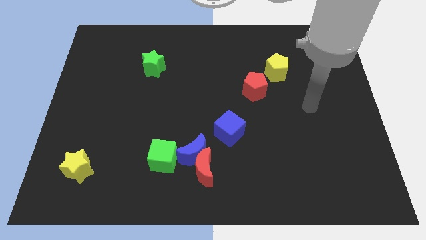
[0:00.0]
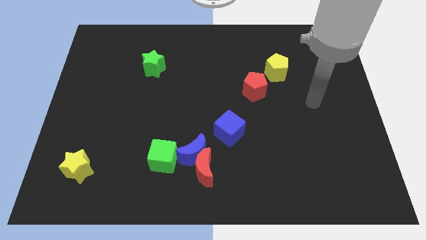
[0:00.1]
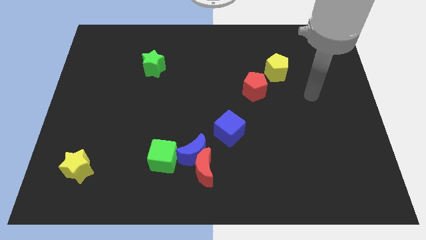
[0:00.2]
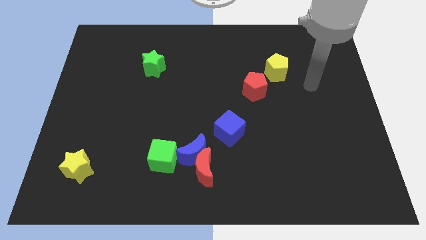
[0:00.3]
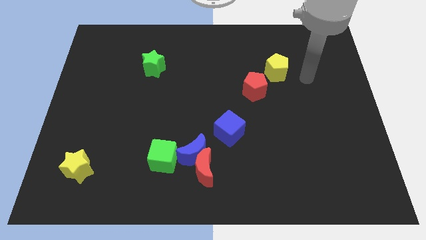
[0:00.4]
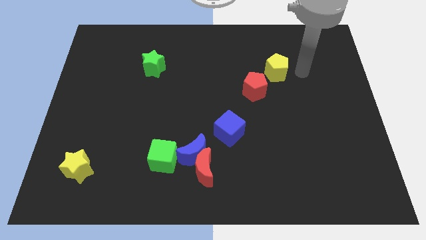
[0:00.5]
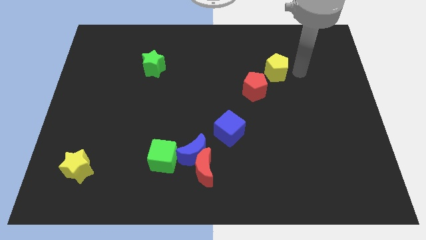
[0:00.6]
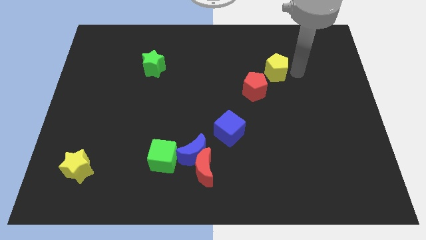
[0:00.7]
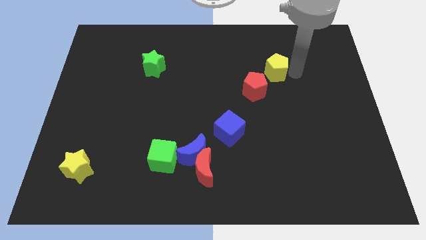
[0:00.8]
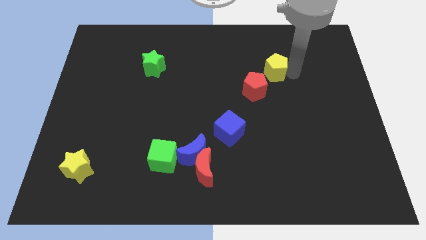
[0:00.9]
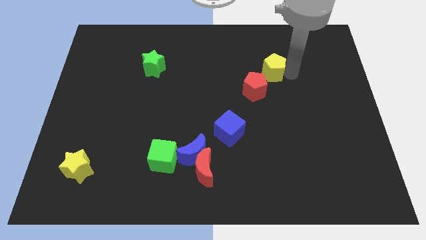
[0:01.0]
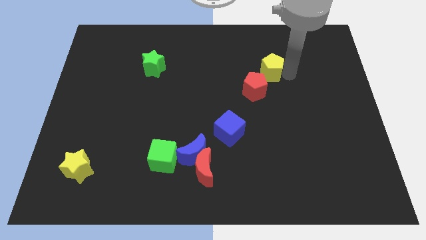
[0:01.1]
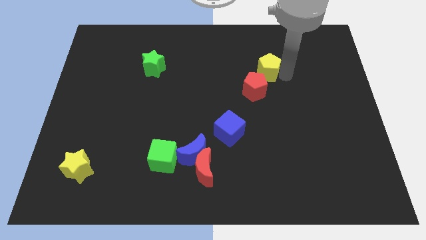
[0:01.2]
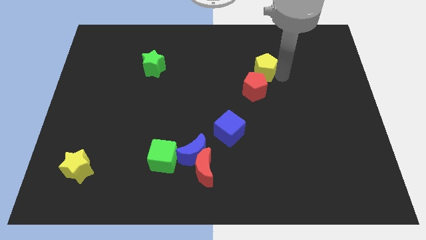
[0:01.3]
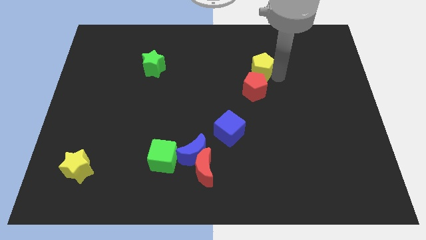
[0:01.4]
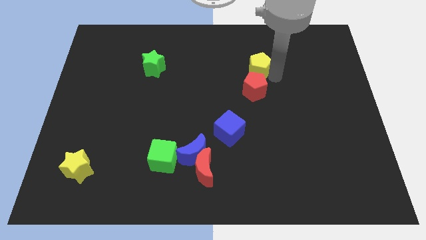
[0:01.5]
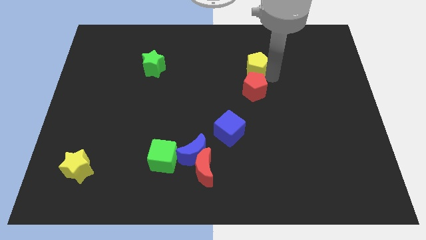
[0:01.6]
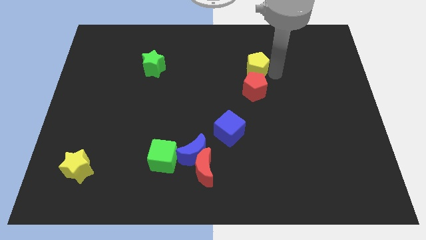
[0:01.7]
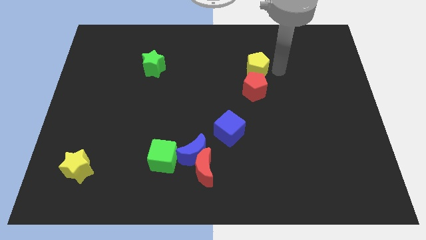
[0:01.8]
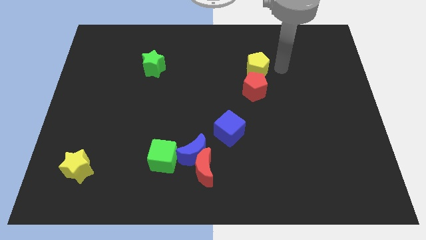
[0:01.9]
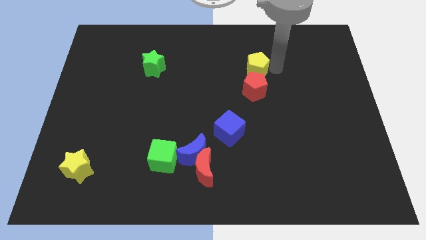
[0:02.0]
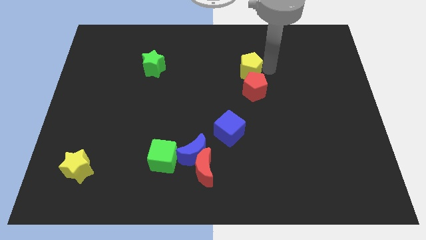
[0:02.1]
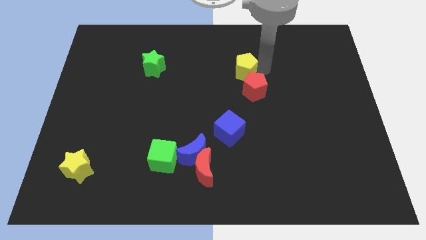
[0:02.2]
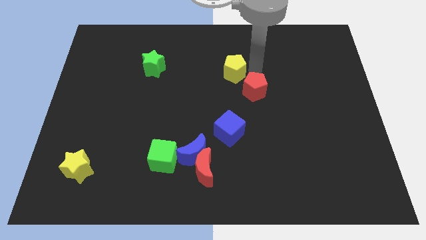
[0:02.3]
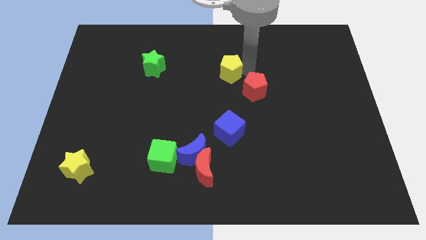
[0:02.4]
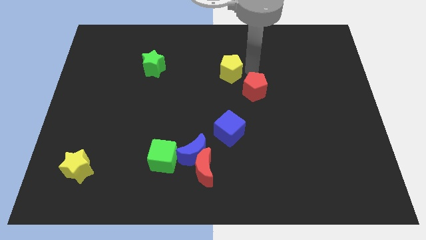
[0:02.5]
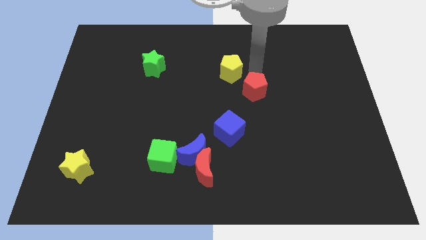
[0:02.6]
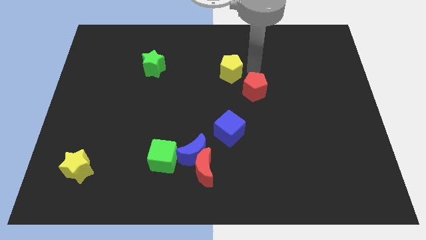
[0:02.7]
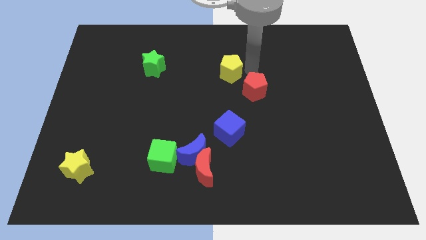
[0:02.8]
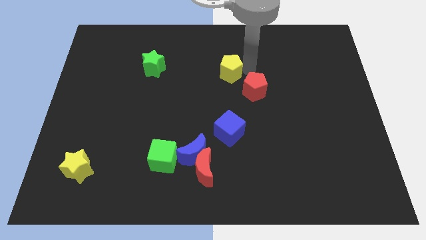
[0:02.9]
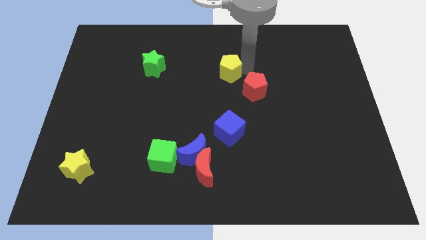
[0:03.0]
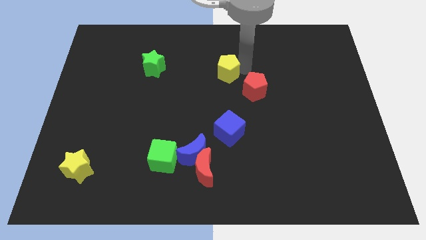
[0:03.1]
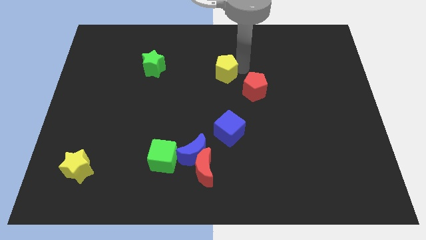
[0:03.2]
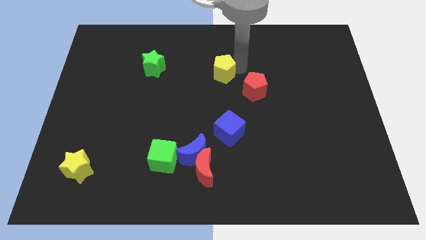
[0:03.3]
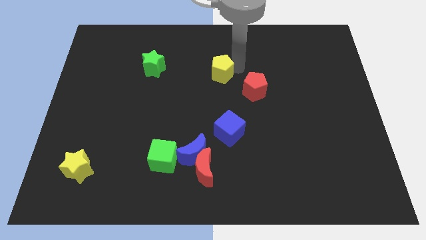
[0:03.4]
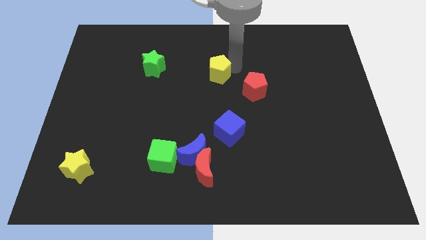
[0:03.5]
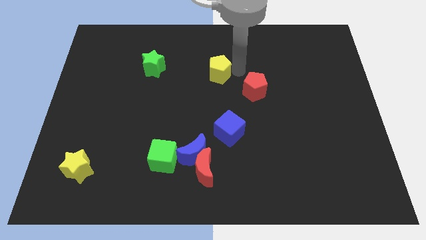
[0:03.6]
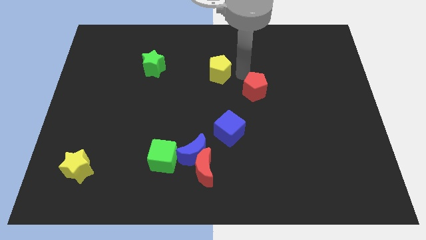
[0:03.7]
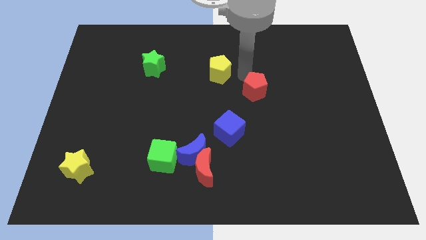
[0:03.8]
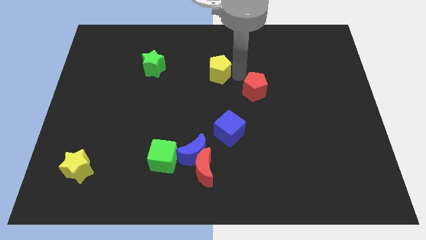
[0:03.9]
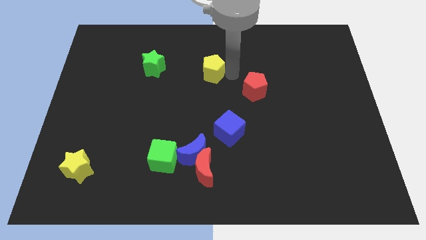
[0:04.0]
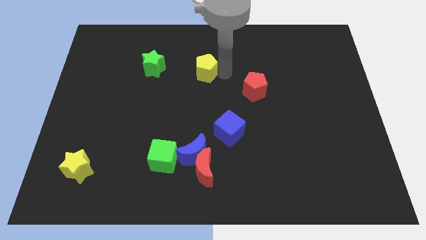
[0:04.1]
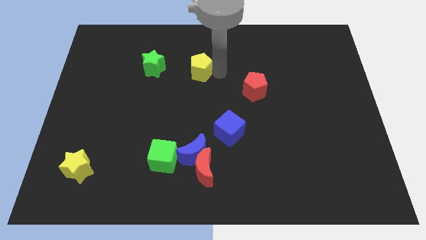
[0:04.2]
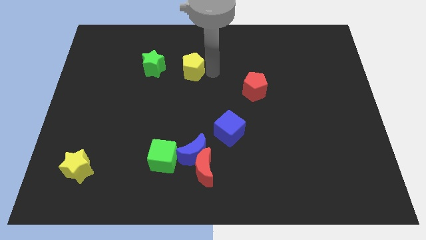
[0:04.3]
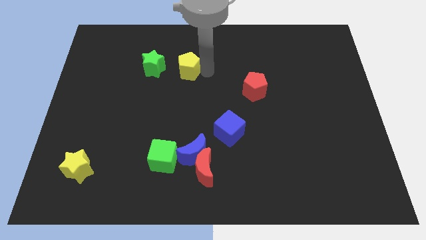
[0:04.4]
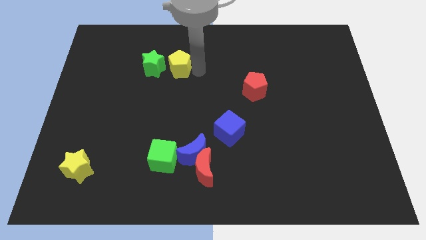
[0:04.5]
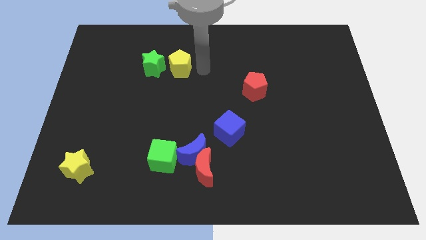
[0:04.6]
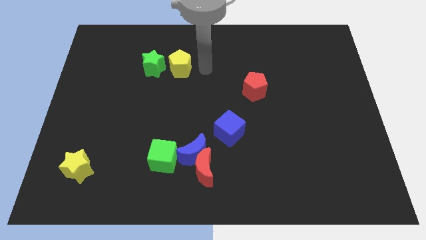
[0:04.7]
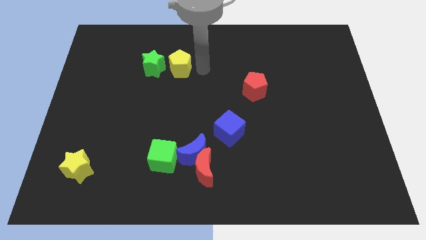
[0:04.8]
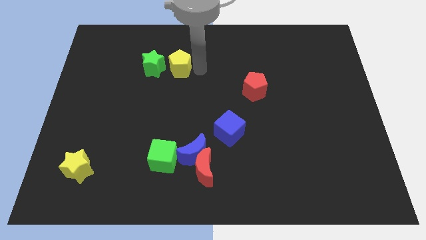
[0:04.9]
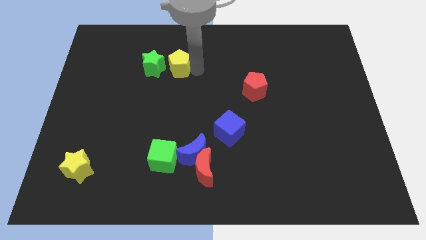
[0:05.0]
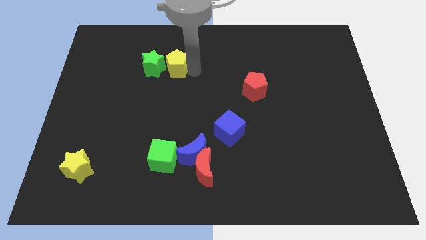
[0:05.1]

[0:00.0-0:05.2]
move the yellow pentagon to the green star

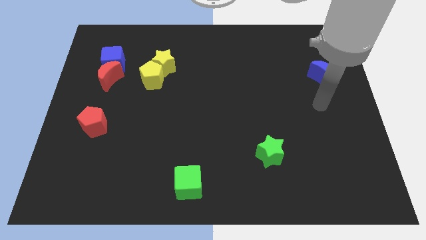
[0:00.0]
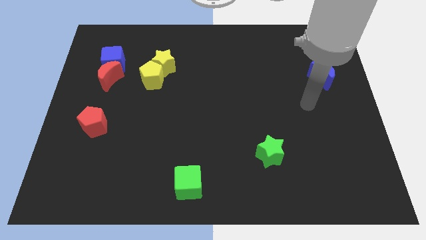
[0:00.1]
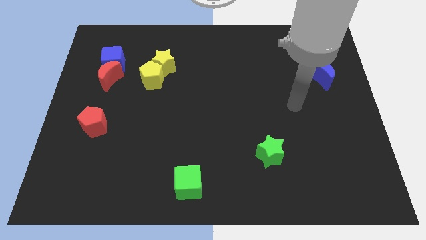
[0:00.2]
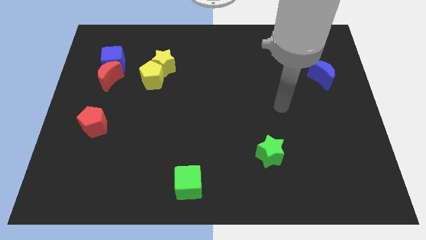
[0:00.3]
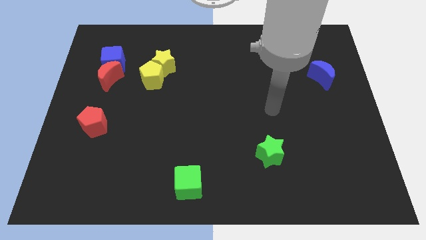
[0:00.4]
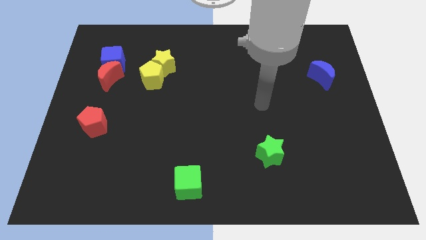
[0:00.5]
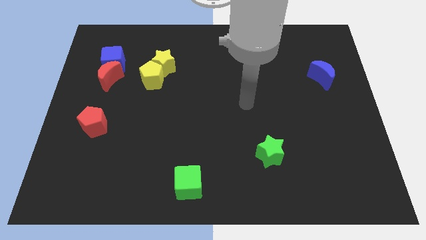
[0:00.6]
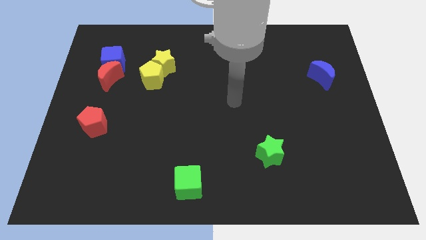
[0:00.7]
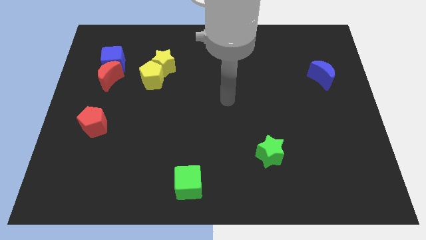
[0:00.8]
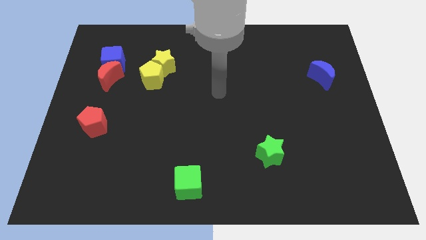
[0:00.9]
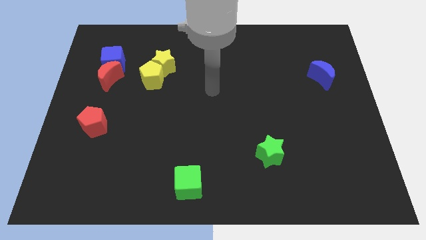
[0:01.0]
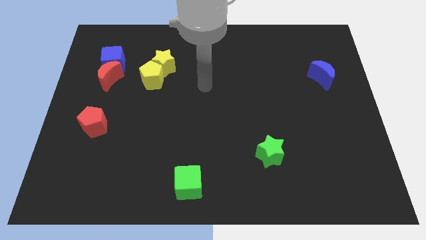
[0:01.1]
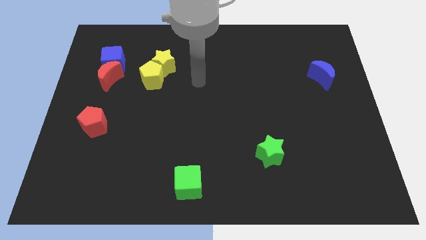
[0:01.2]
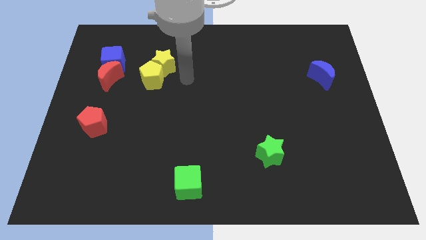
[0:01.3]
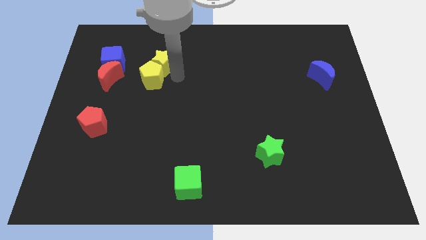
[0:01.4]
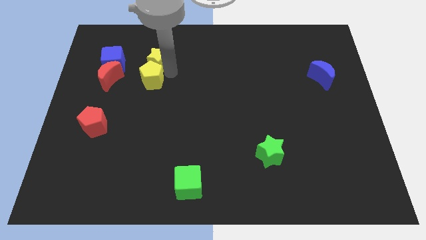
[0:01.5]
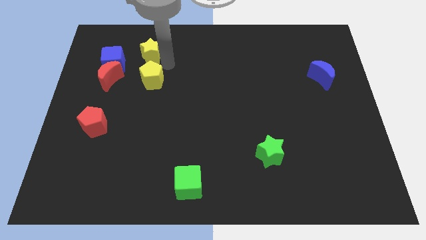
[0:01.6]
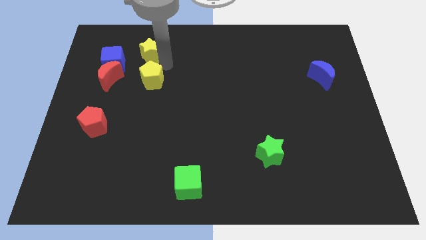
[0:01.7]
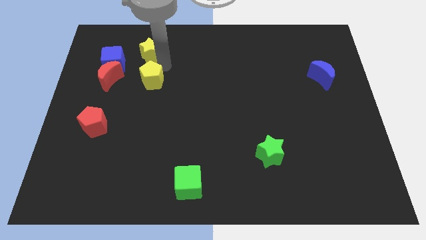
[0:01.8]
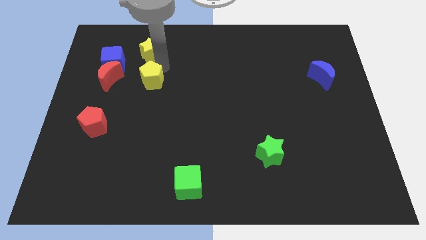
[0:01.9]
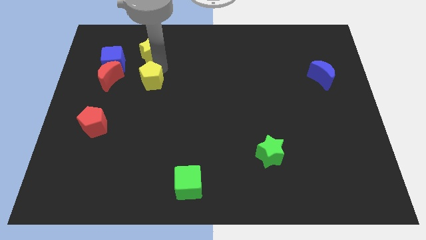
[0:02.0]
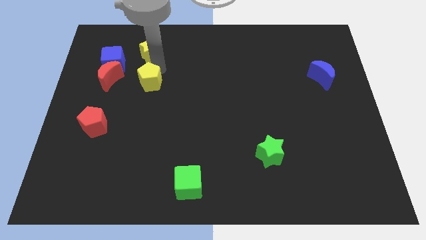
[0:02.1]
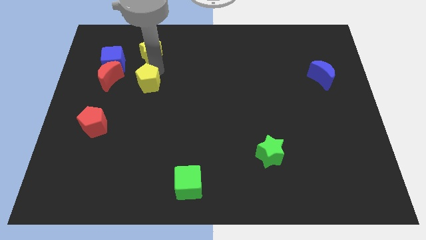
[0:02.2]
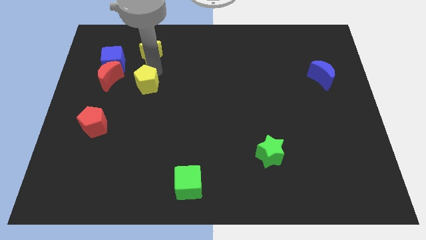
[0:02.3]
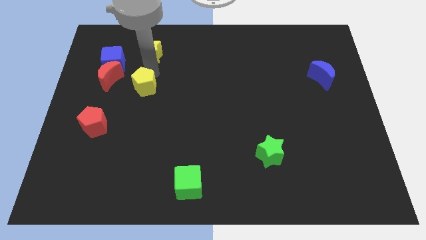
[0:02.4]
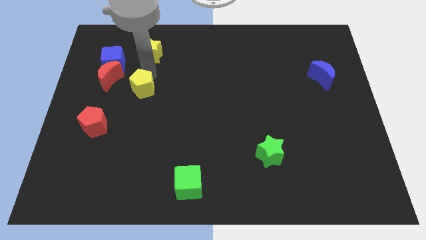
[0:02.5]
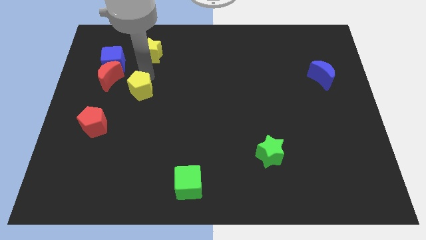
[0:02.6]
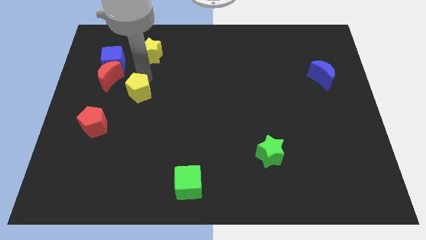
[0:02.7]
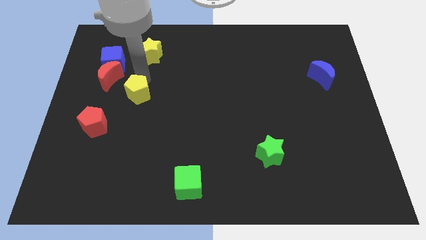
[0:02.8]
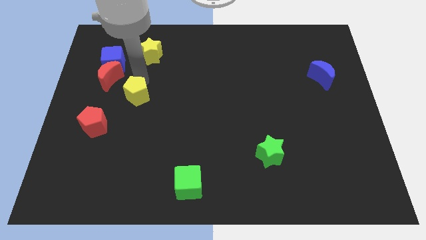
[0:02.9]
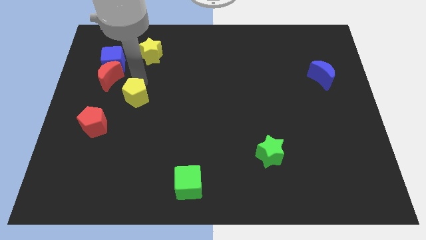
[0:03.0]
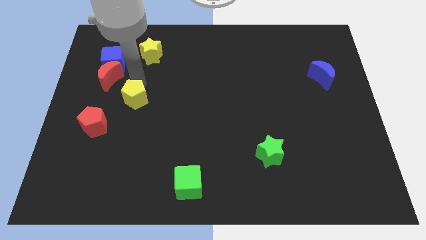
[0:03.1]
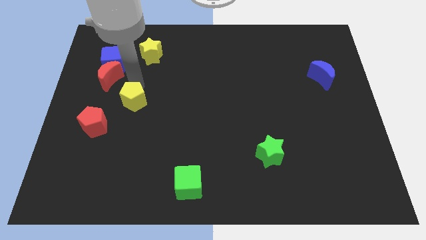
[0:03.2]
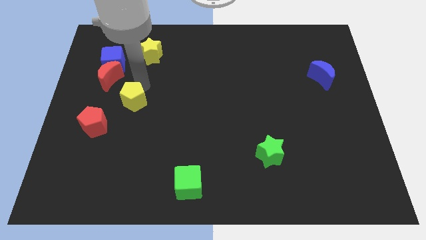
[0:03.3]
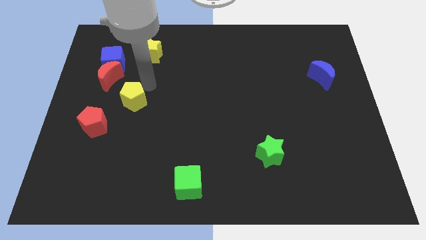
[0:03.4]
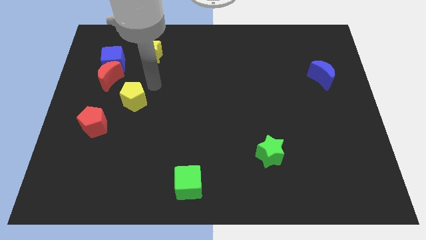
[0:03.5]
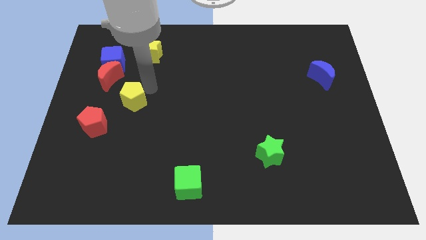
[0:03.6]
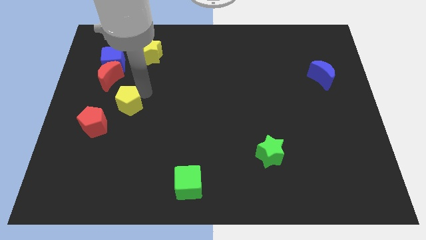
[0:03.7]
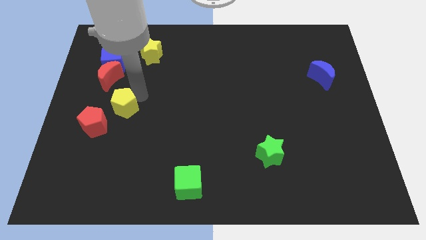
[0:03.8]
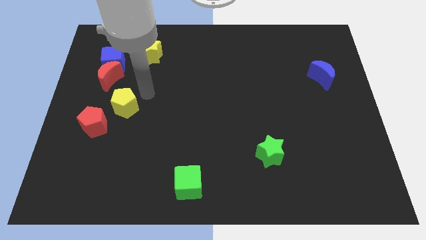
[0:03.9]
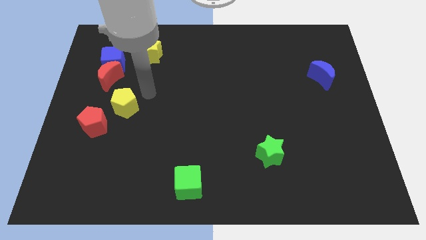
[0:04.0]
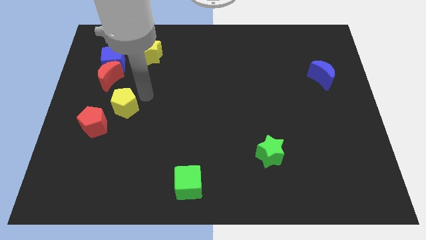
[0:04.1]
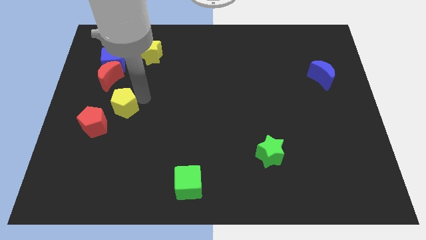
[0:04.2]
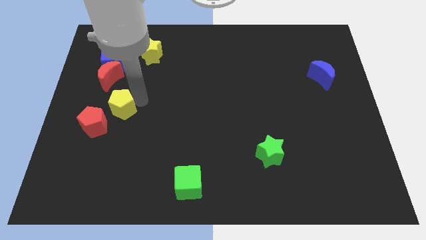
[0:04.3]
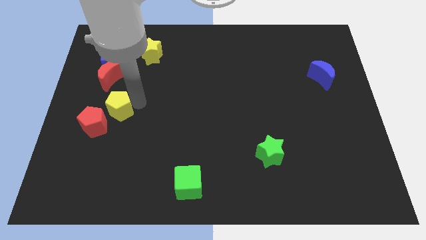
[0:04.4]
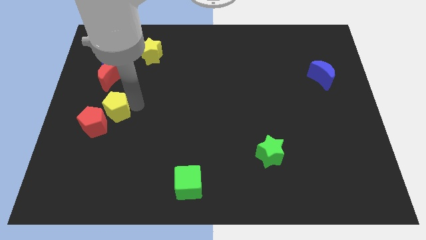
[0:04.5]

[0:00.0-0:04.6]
move the yellow pentagon next to the red pentagon
